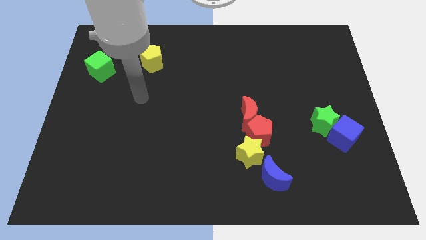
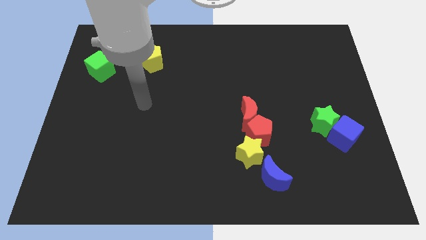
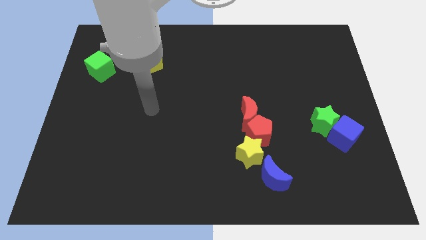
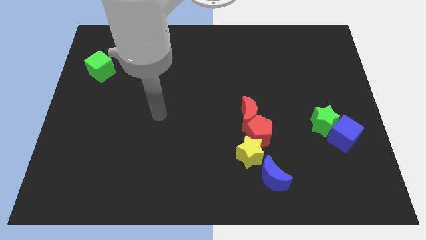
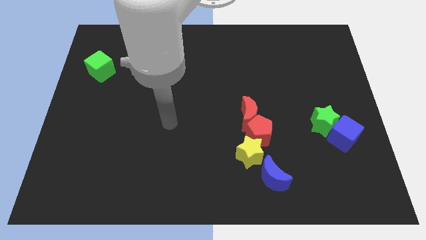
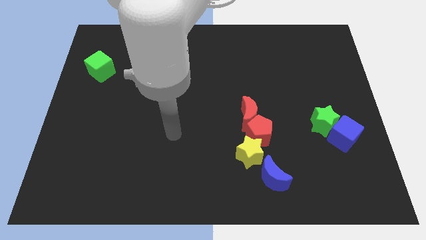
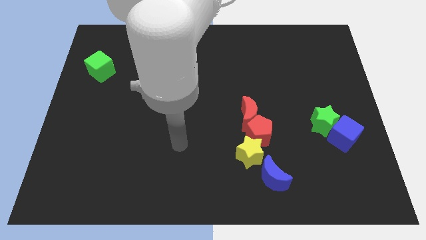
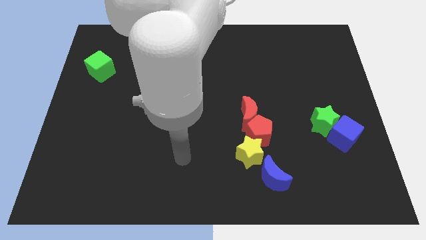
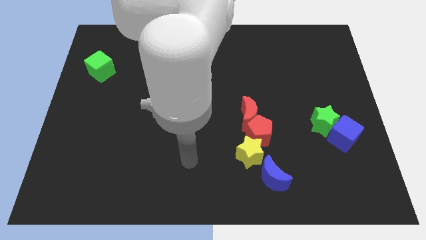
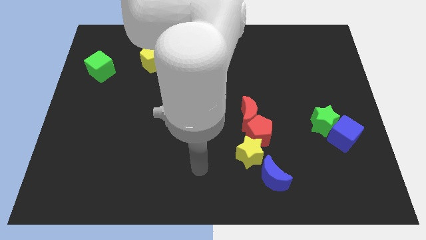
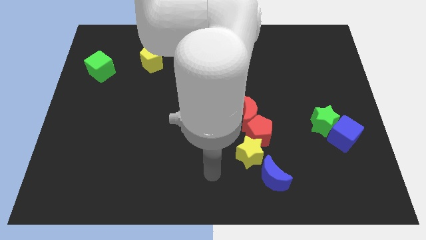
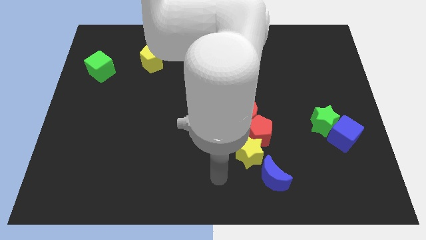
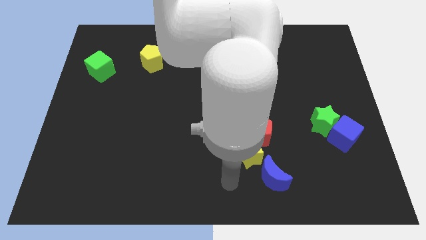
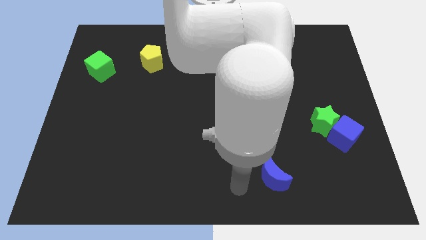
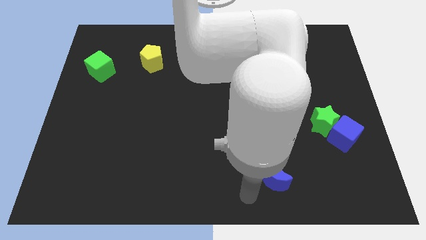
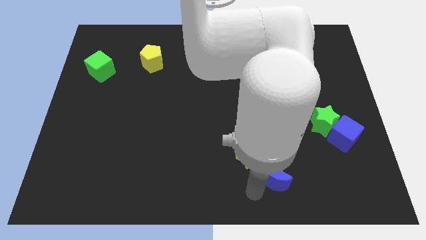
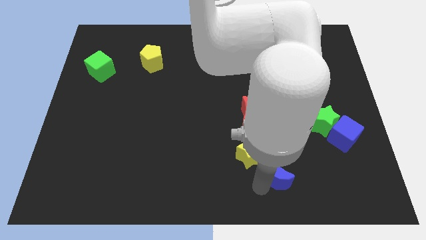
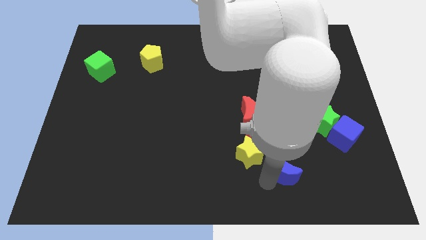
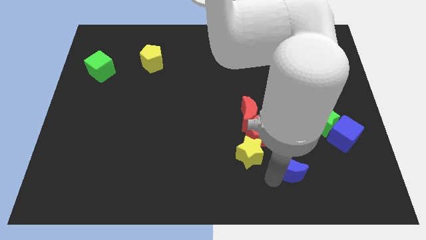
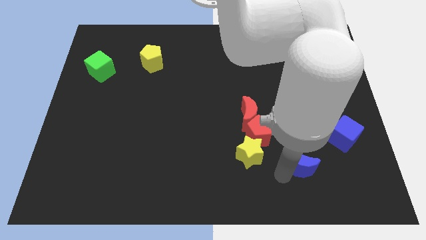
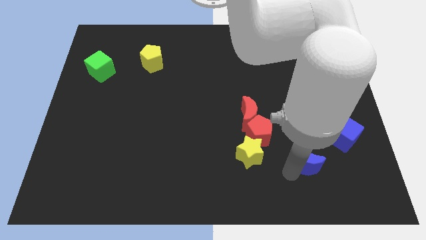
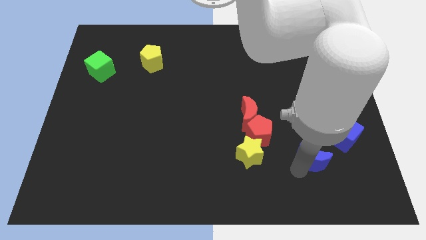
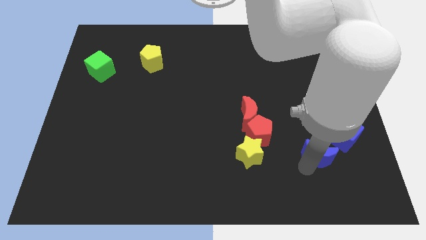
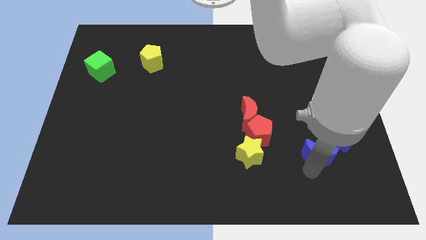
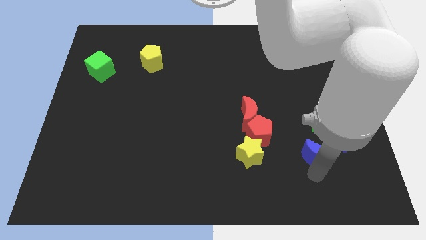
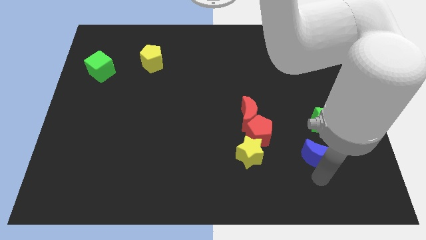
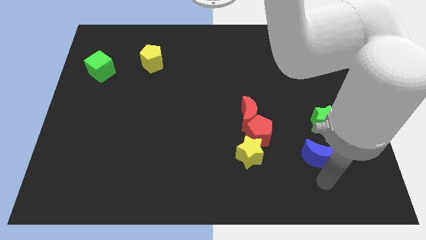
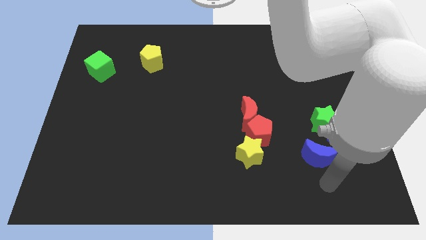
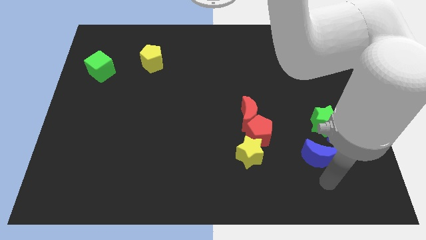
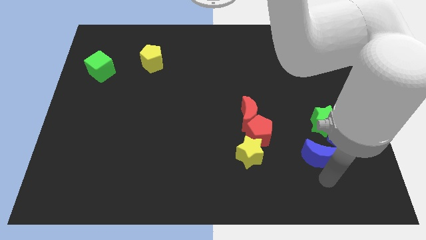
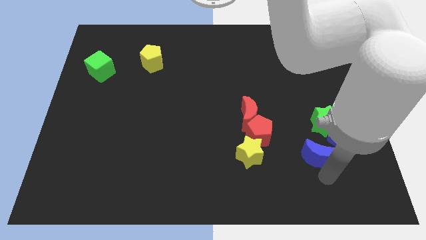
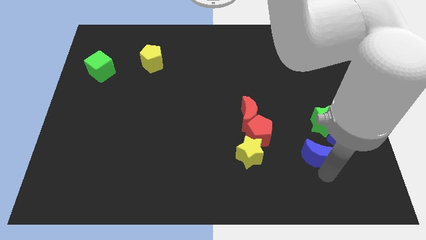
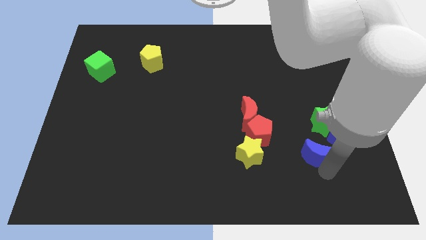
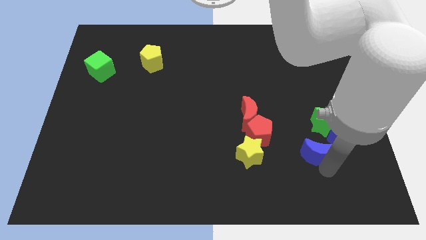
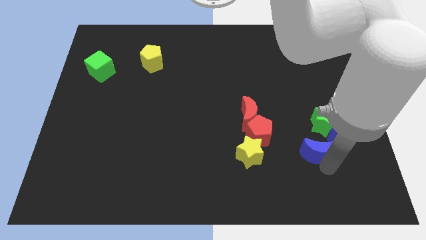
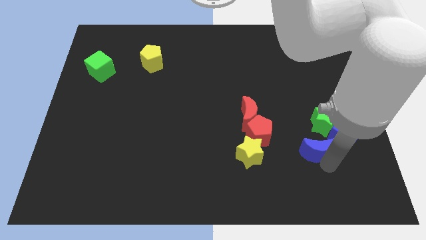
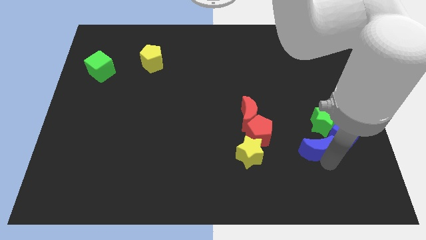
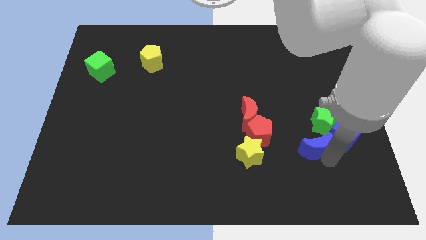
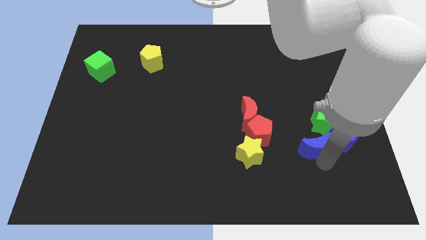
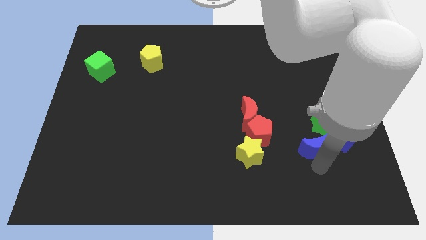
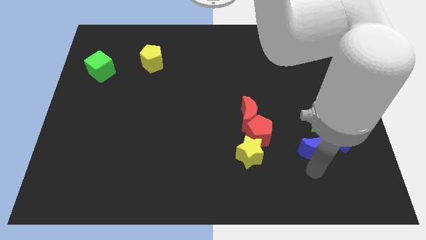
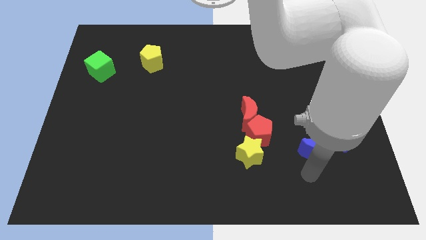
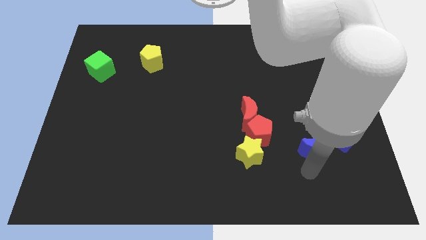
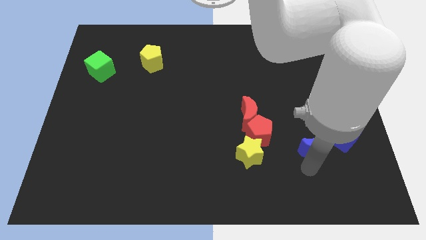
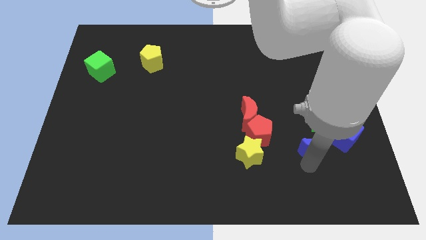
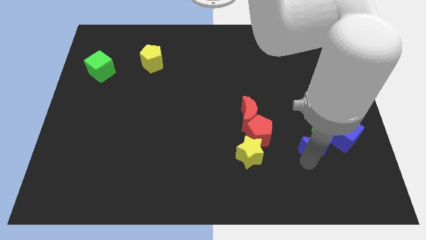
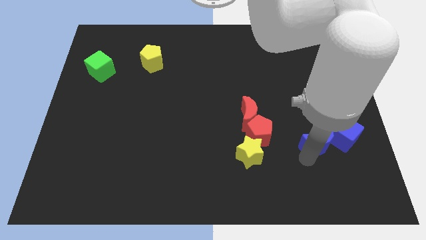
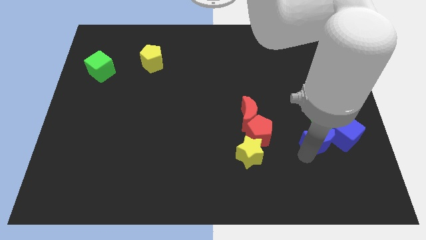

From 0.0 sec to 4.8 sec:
slide the blue moon to the green star

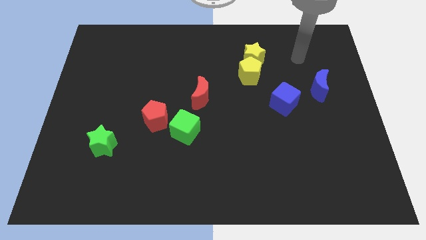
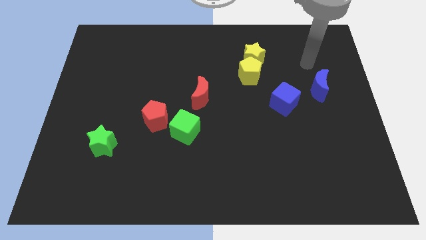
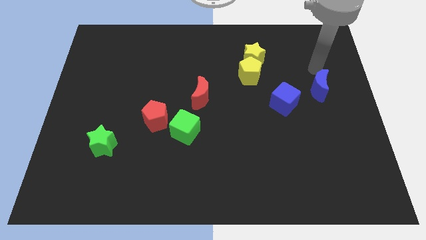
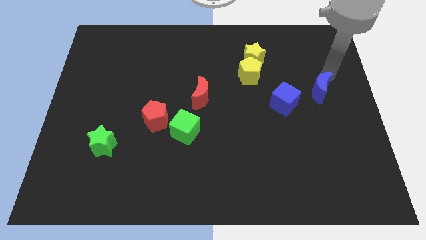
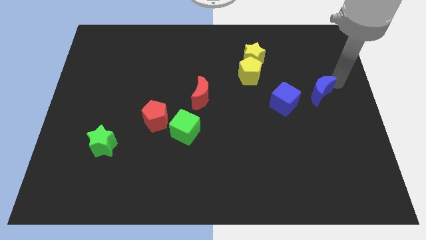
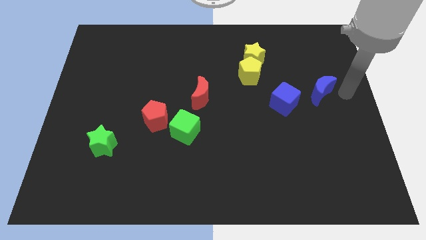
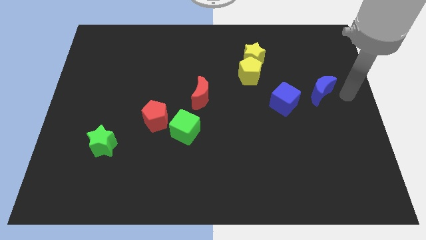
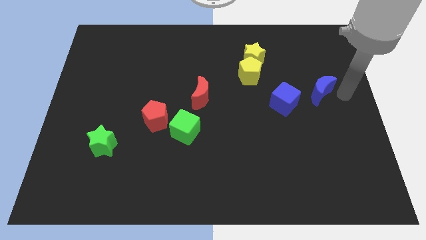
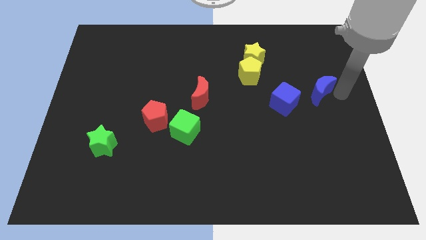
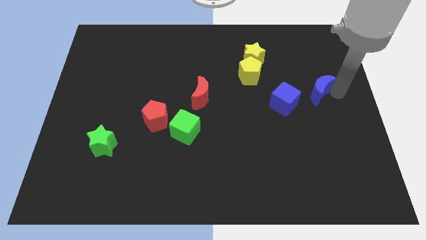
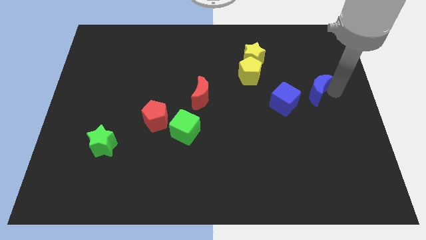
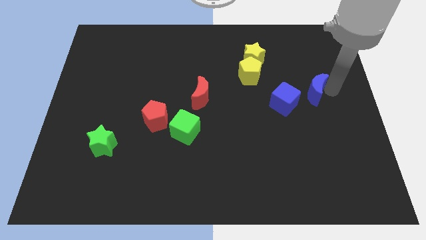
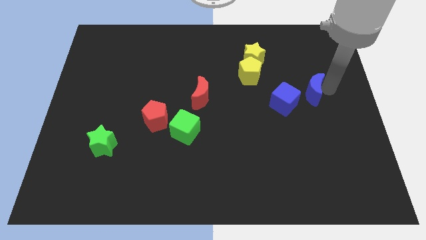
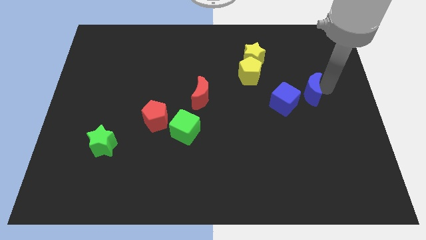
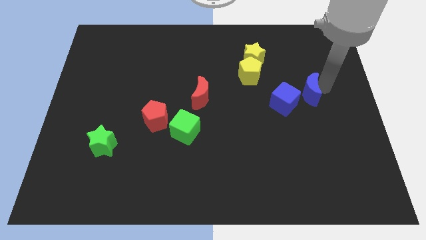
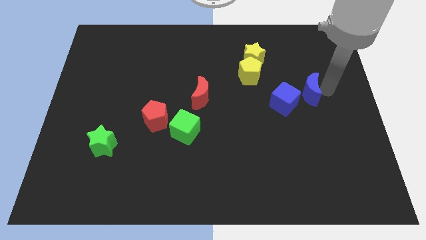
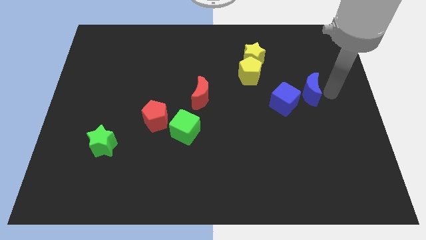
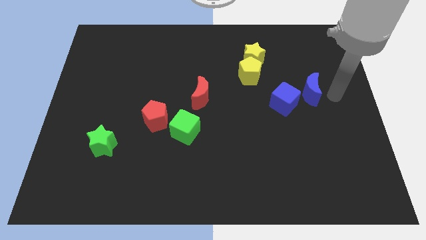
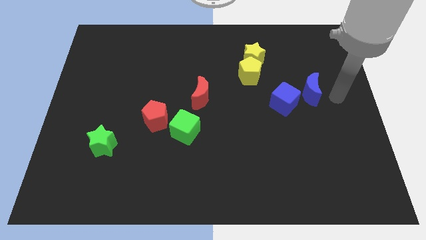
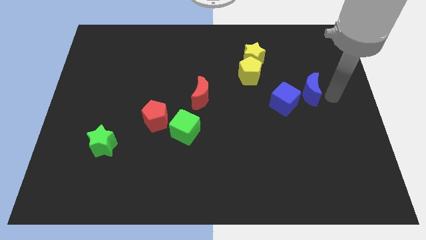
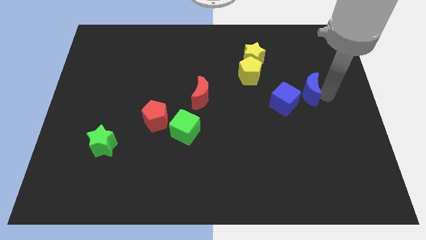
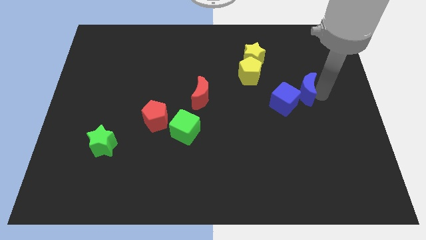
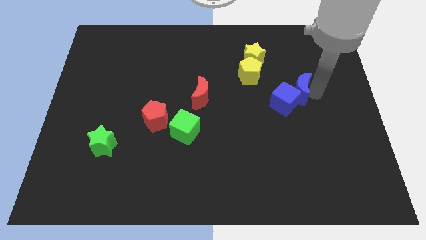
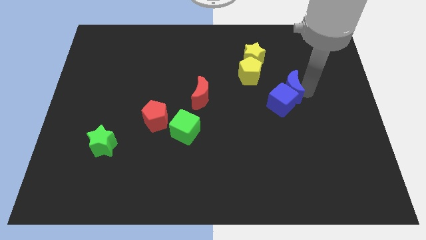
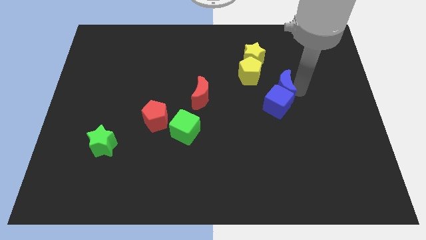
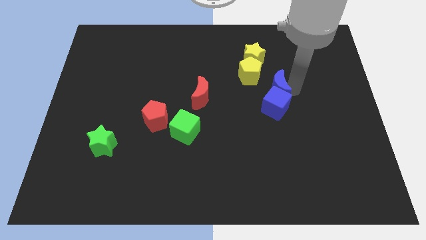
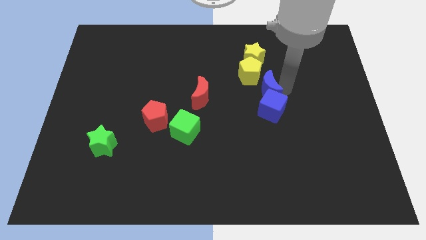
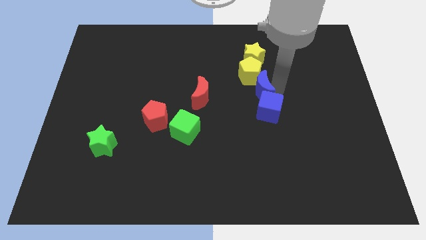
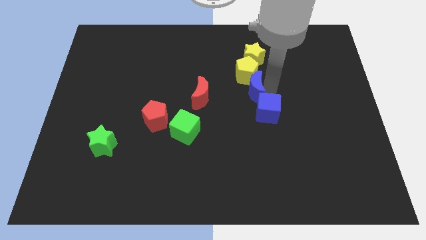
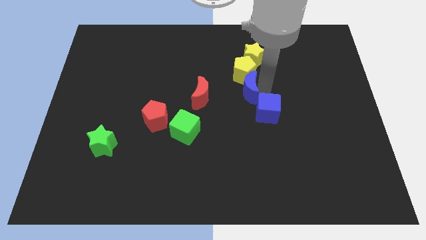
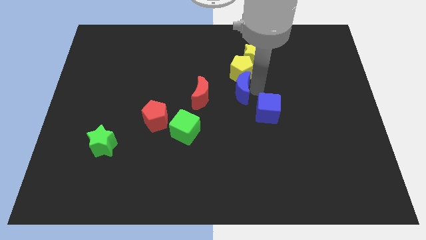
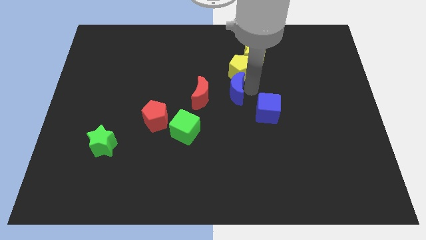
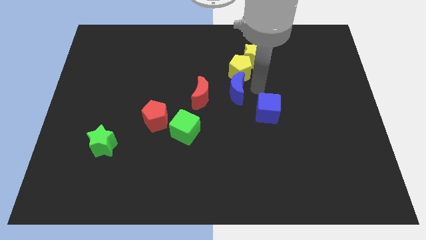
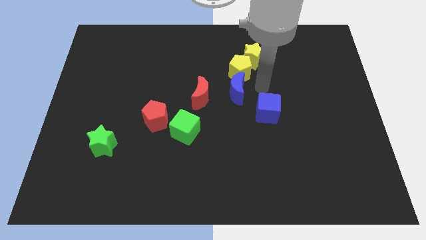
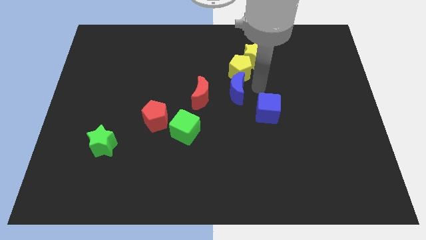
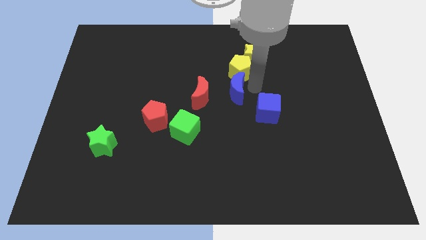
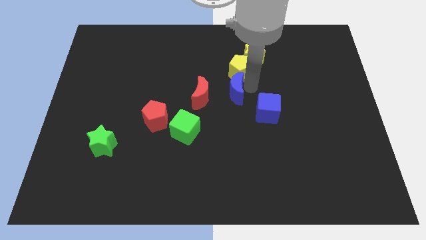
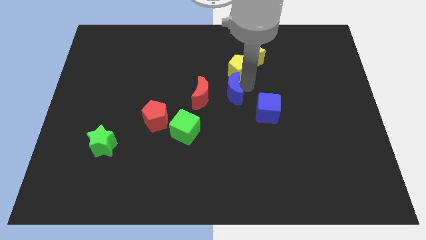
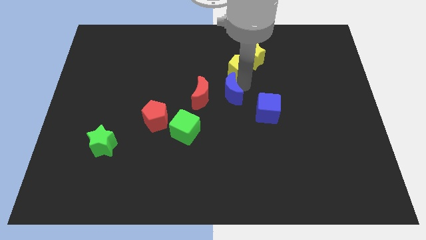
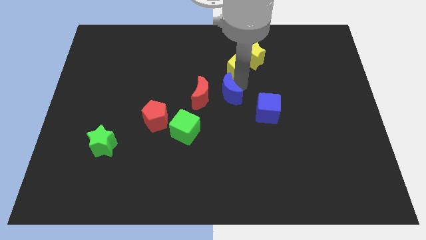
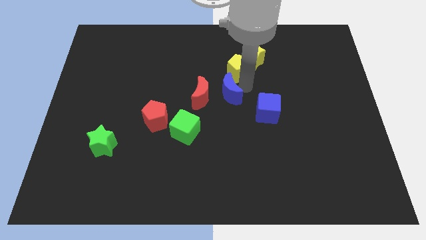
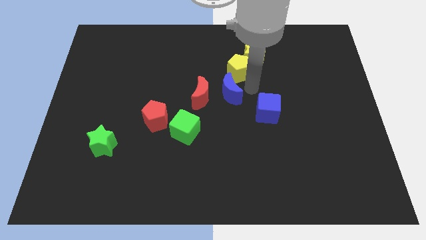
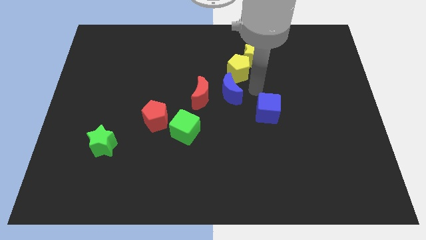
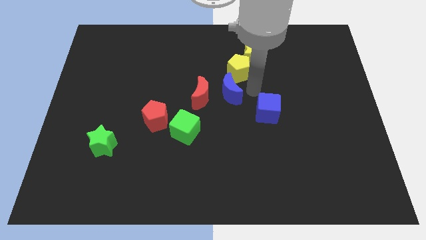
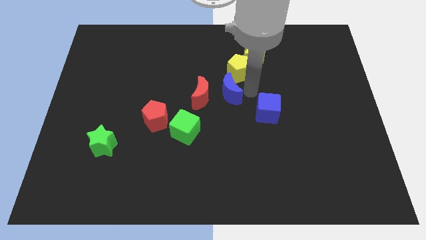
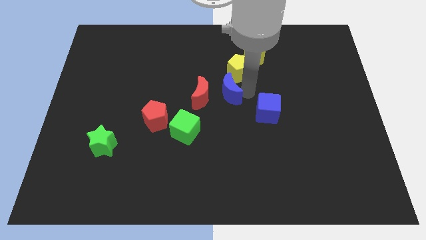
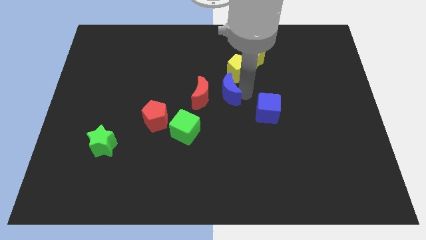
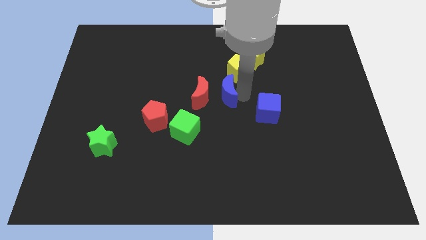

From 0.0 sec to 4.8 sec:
move the blue moon towards the red moon
